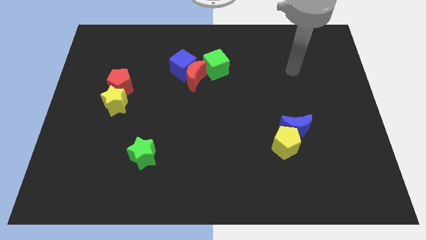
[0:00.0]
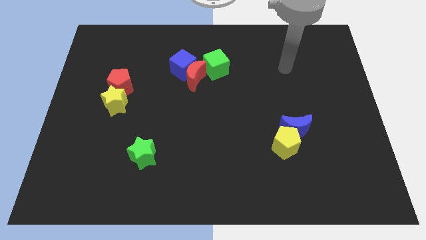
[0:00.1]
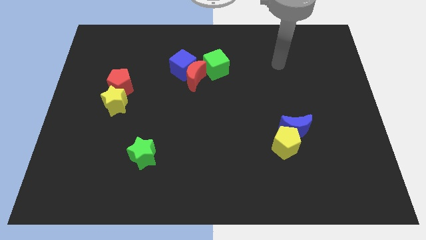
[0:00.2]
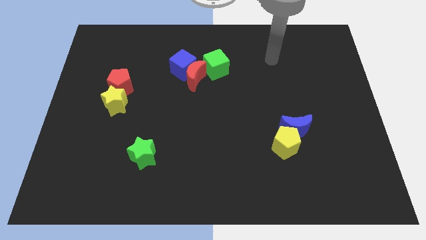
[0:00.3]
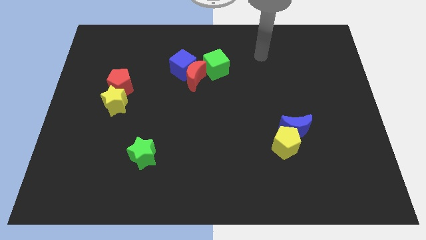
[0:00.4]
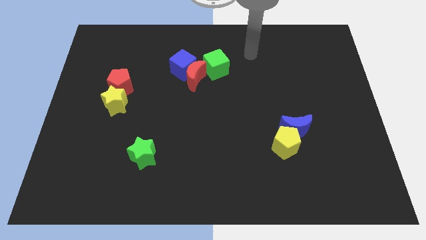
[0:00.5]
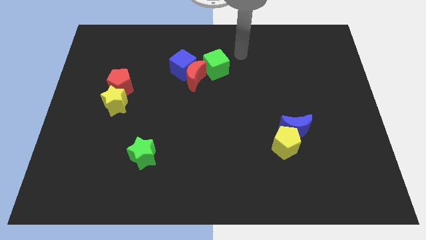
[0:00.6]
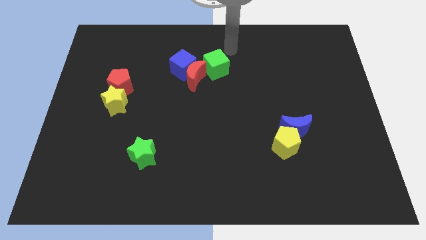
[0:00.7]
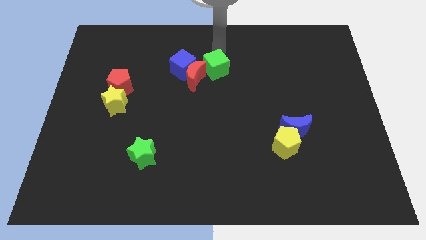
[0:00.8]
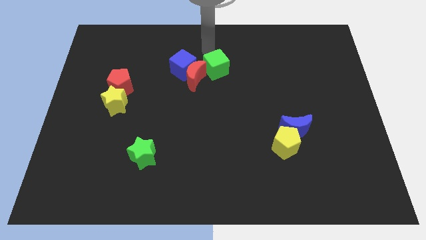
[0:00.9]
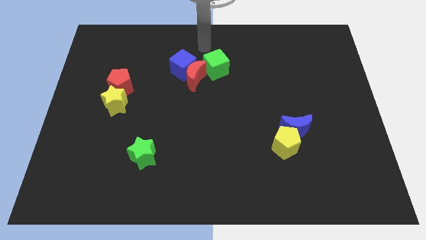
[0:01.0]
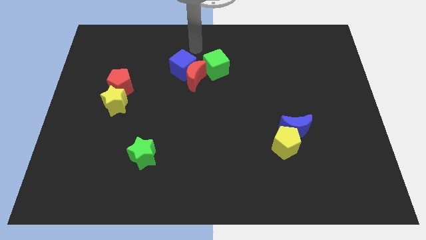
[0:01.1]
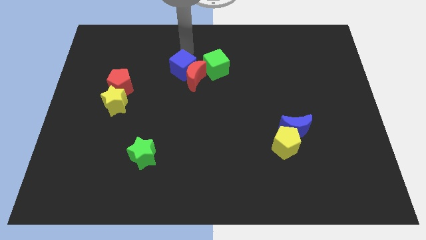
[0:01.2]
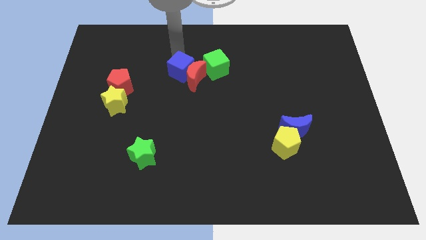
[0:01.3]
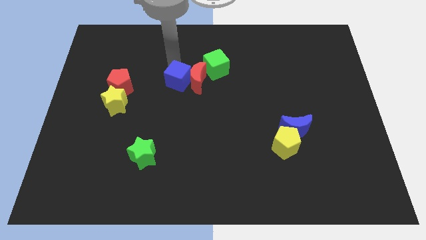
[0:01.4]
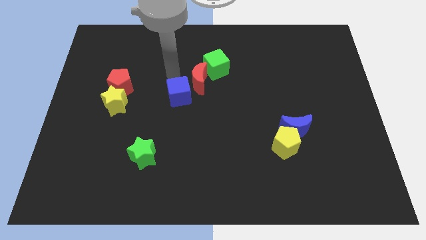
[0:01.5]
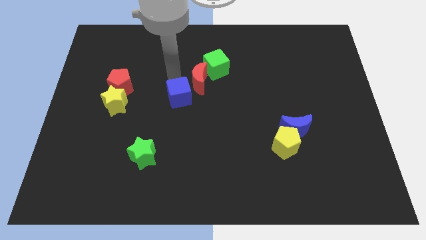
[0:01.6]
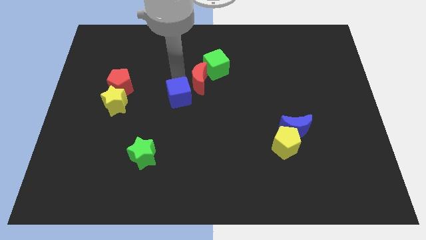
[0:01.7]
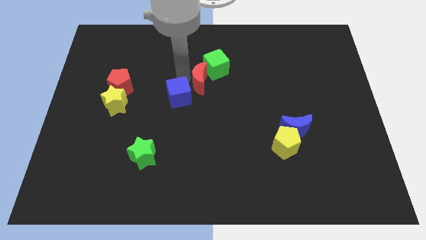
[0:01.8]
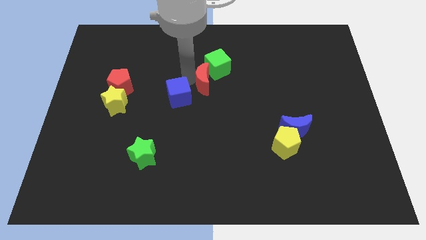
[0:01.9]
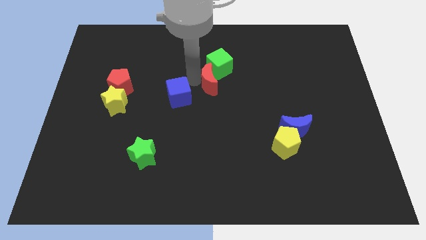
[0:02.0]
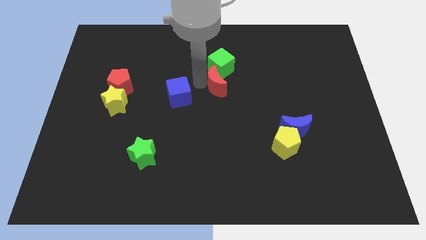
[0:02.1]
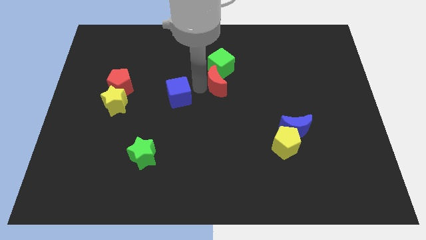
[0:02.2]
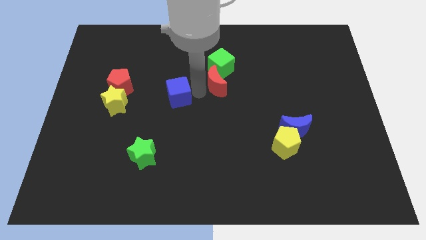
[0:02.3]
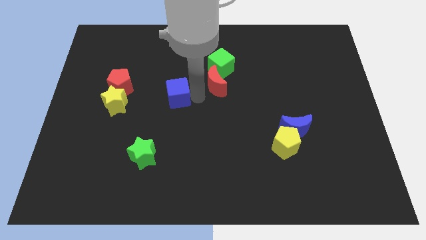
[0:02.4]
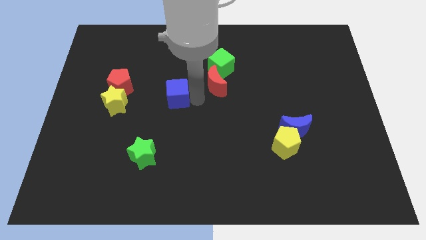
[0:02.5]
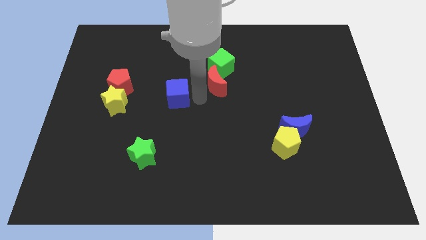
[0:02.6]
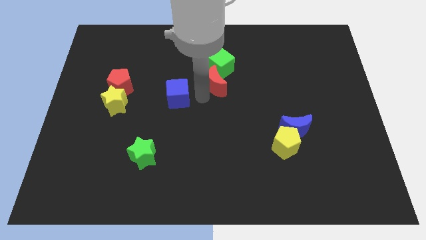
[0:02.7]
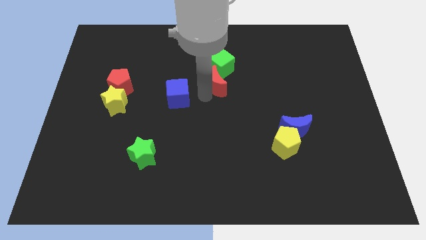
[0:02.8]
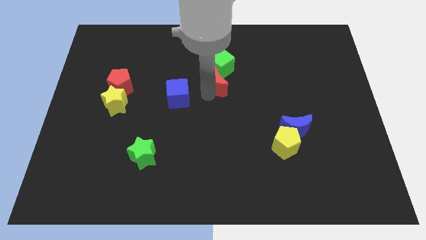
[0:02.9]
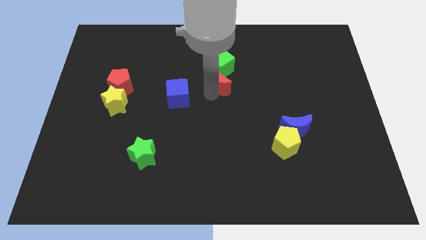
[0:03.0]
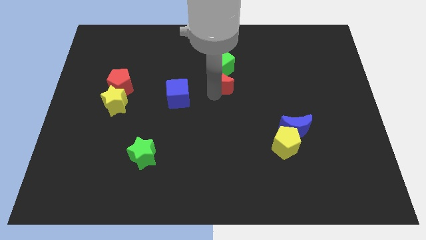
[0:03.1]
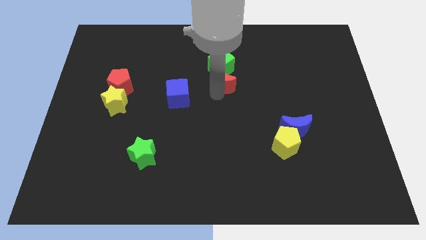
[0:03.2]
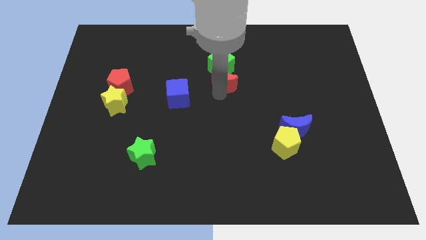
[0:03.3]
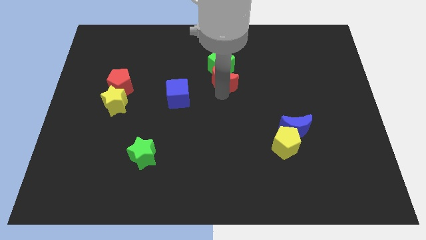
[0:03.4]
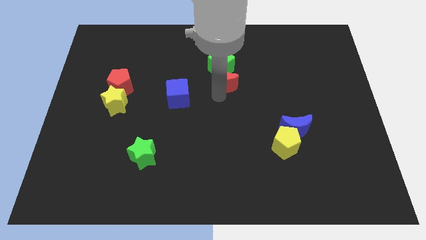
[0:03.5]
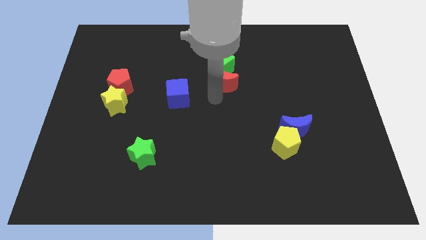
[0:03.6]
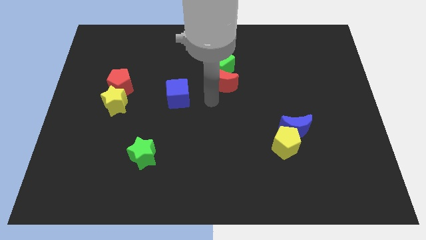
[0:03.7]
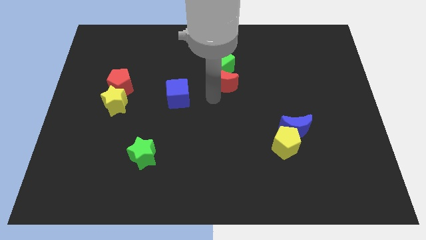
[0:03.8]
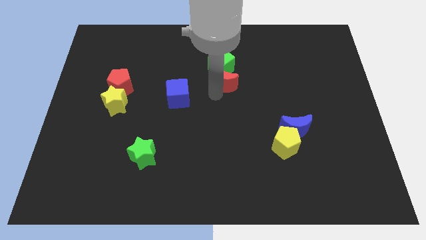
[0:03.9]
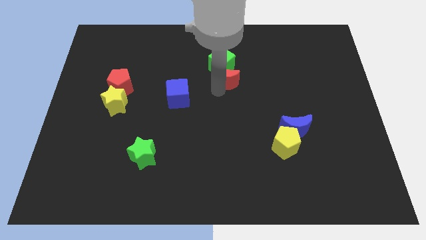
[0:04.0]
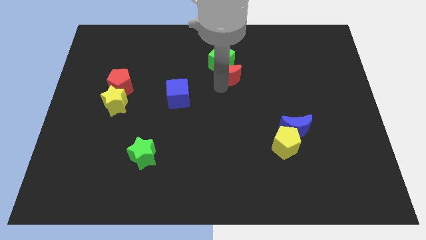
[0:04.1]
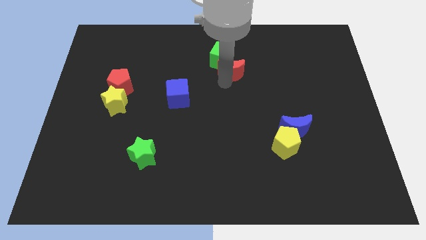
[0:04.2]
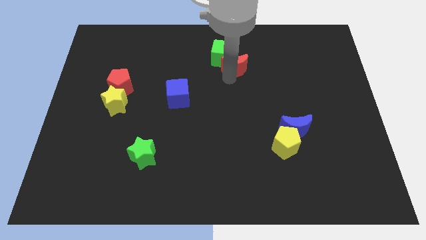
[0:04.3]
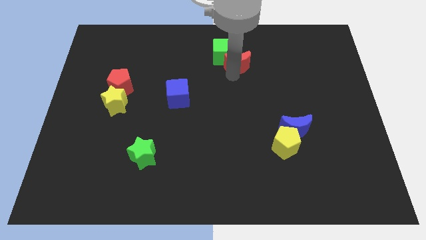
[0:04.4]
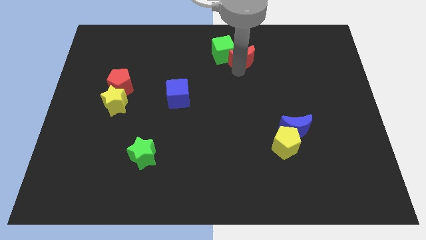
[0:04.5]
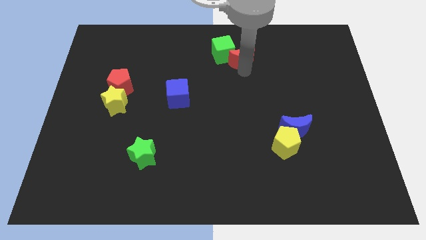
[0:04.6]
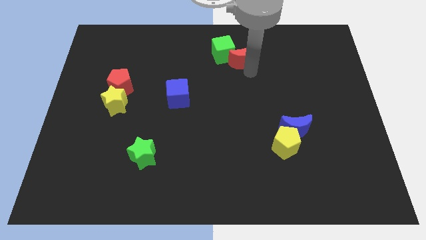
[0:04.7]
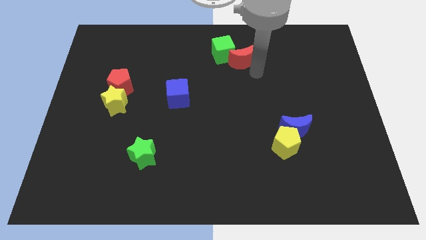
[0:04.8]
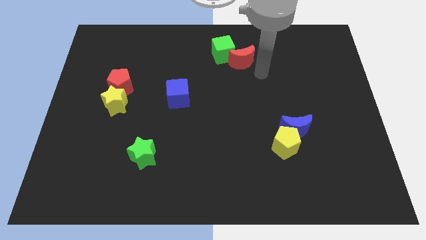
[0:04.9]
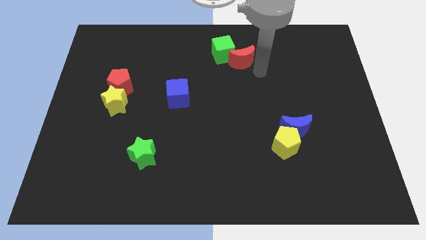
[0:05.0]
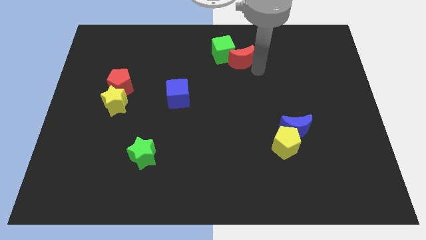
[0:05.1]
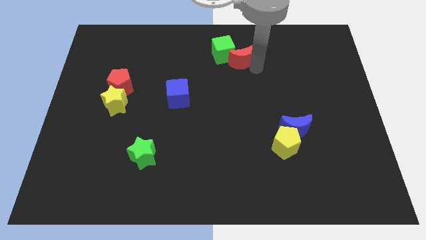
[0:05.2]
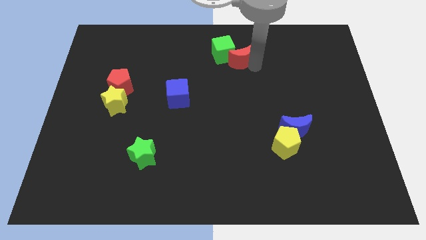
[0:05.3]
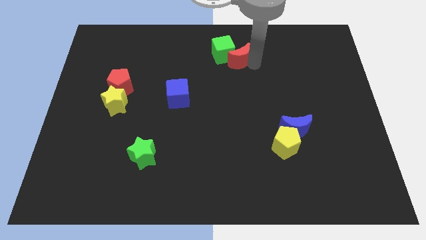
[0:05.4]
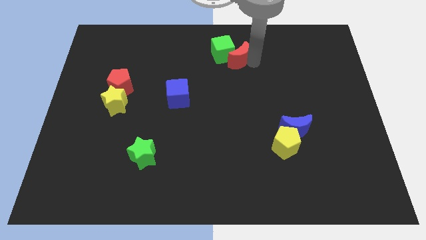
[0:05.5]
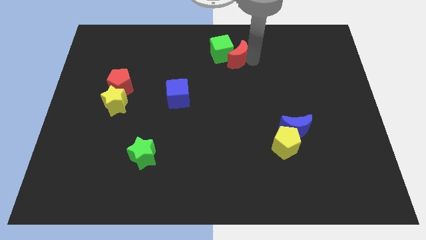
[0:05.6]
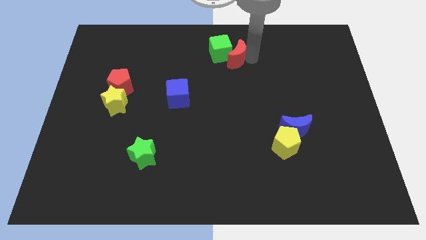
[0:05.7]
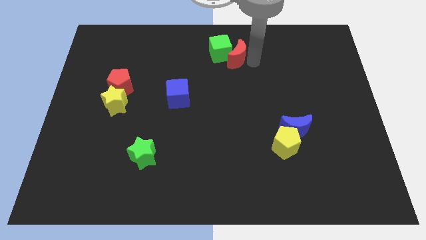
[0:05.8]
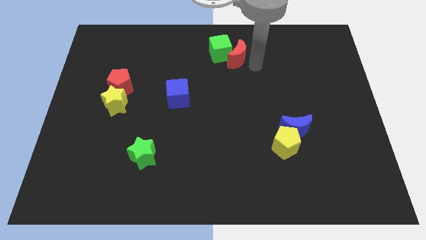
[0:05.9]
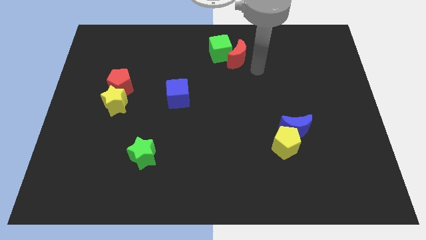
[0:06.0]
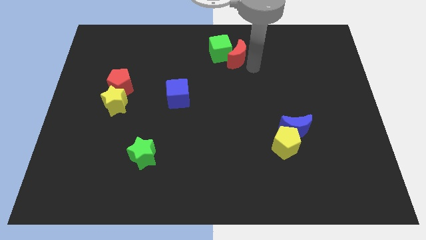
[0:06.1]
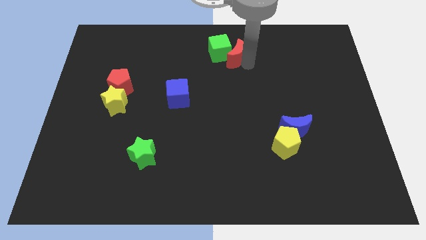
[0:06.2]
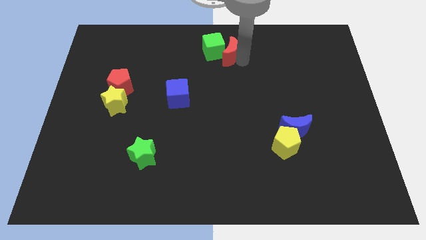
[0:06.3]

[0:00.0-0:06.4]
push the red moon to the top
